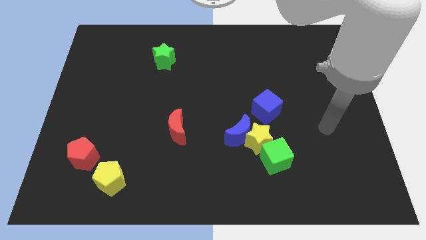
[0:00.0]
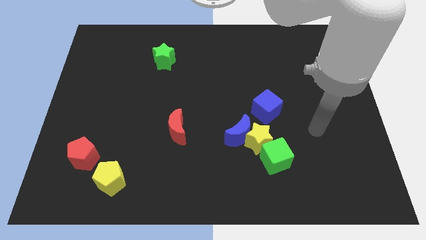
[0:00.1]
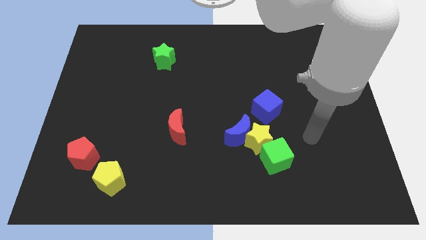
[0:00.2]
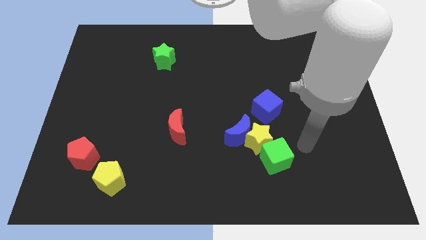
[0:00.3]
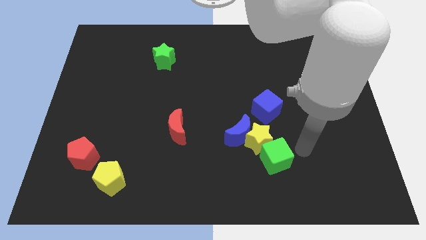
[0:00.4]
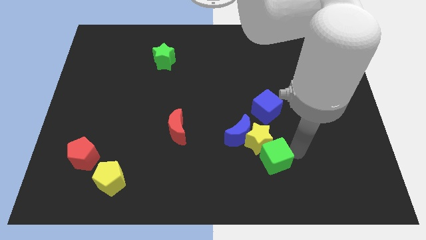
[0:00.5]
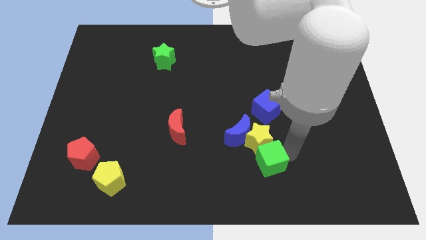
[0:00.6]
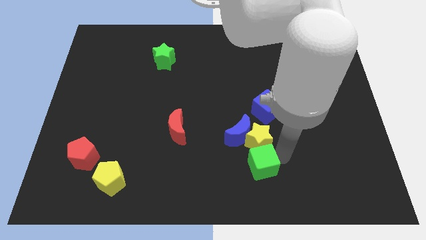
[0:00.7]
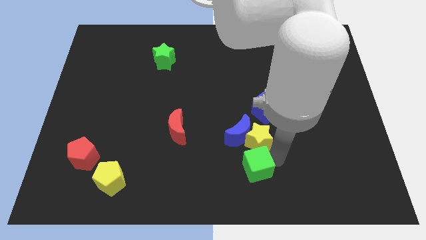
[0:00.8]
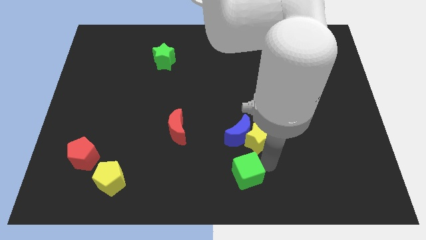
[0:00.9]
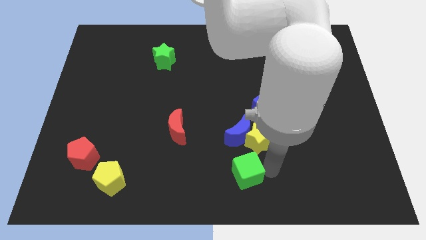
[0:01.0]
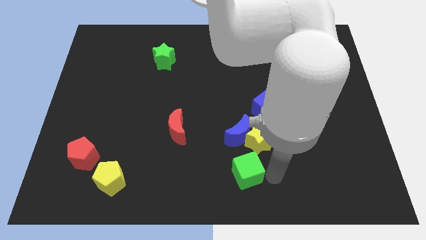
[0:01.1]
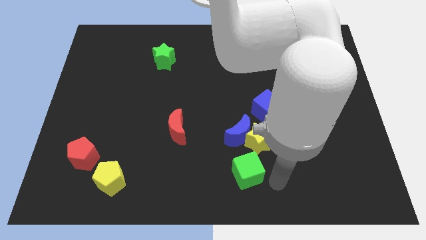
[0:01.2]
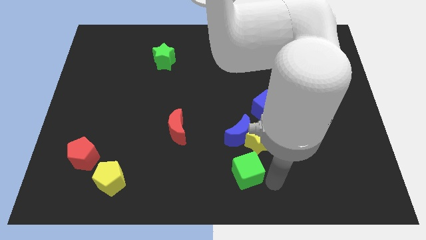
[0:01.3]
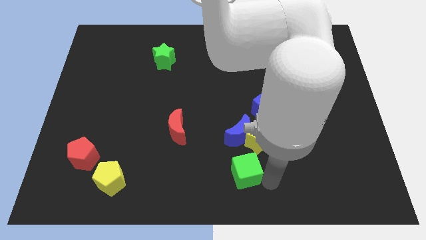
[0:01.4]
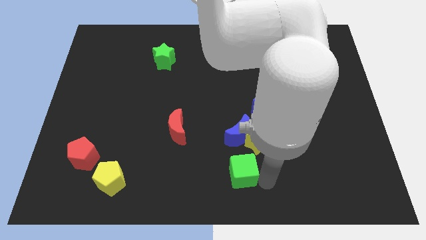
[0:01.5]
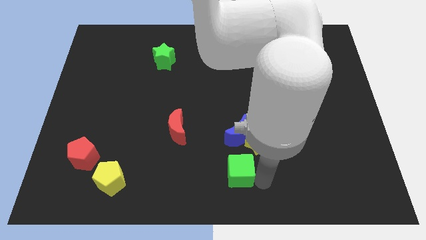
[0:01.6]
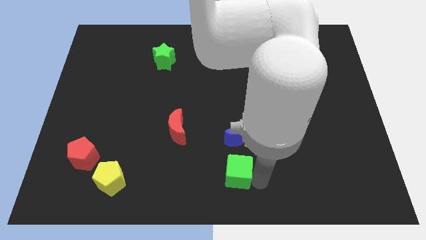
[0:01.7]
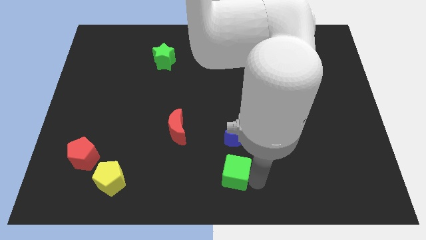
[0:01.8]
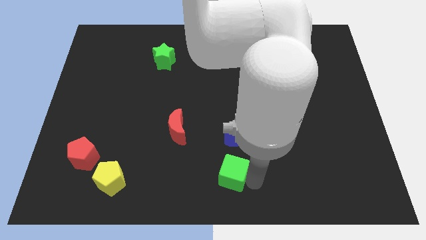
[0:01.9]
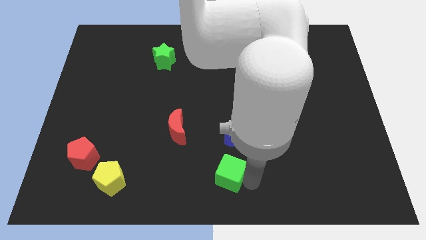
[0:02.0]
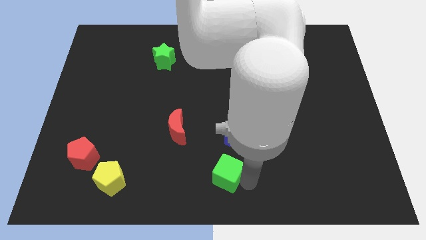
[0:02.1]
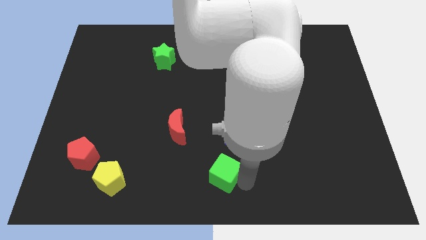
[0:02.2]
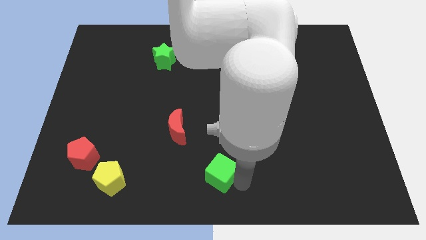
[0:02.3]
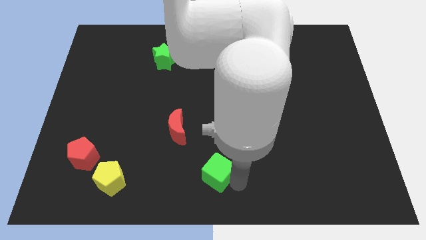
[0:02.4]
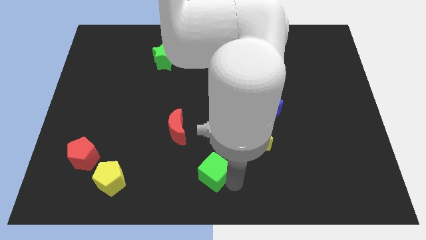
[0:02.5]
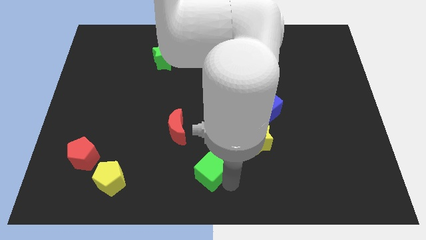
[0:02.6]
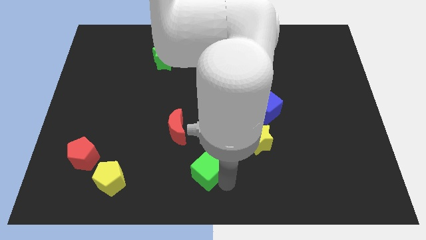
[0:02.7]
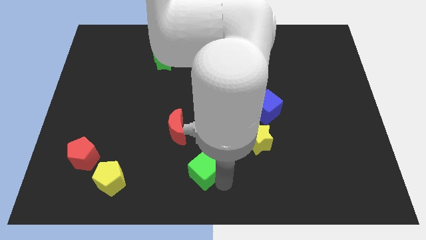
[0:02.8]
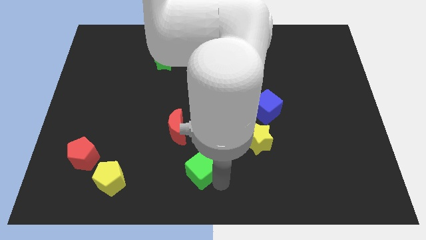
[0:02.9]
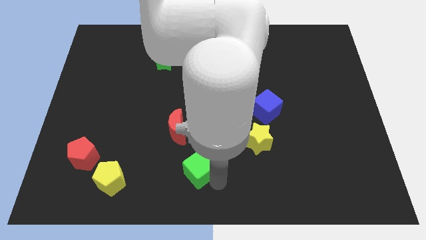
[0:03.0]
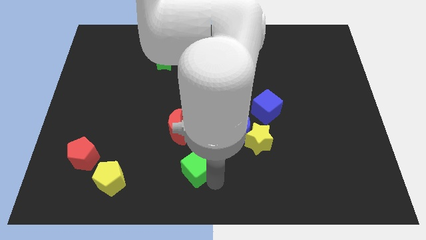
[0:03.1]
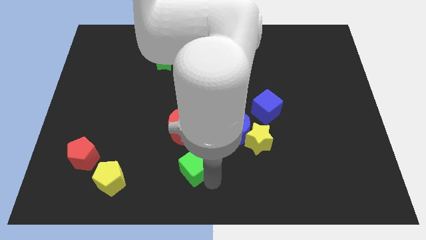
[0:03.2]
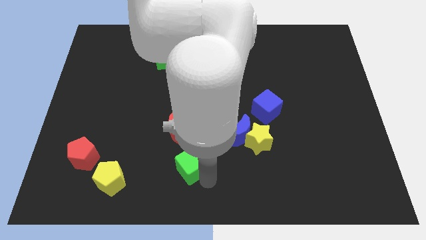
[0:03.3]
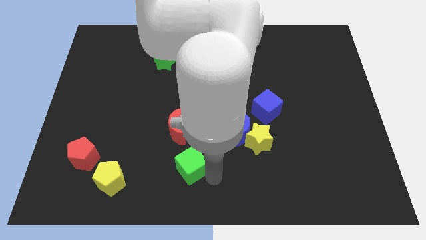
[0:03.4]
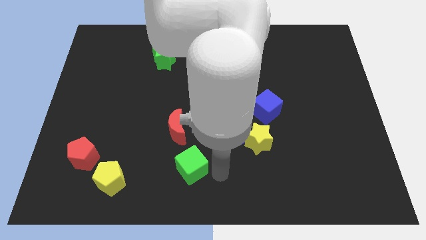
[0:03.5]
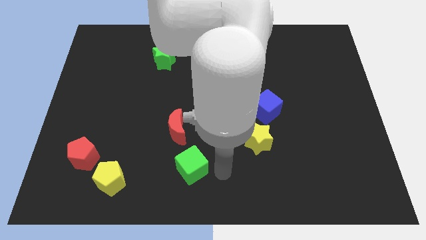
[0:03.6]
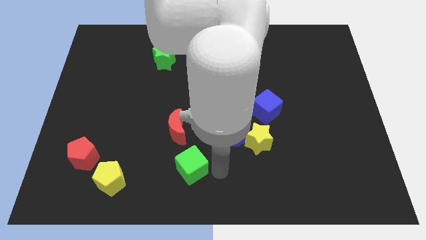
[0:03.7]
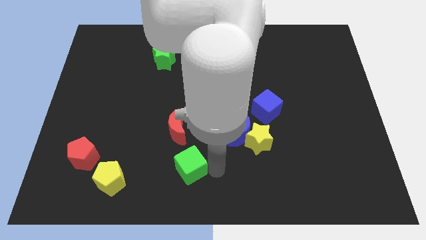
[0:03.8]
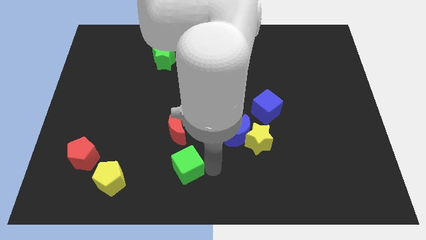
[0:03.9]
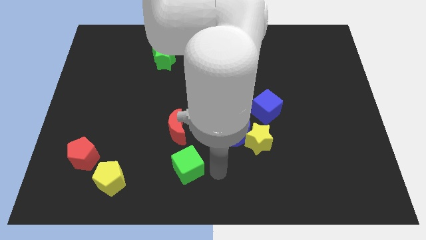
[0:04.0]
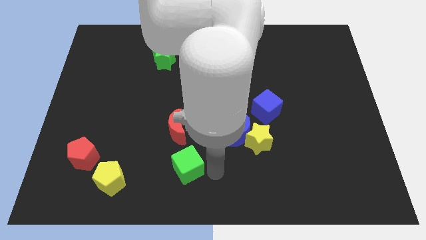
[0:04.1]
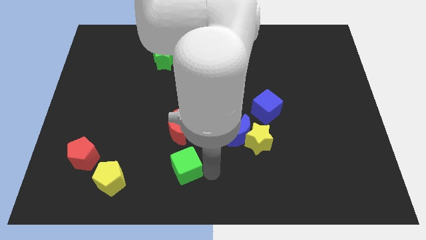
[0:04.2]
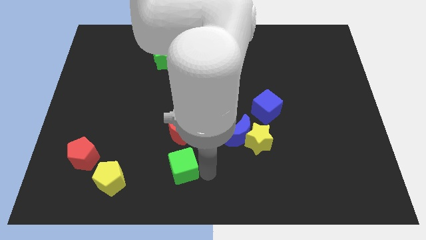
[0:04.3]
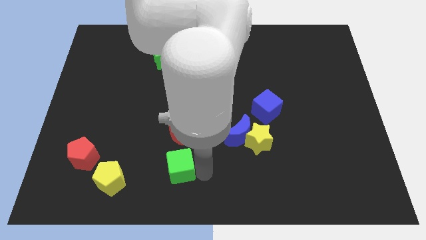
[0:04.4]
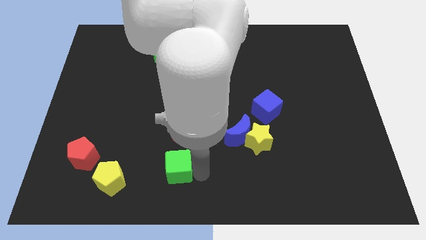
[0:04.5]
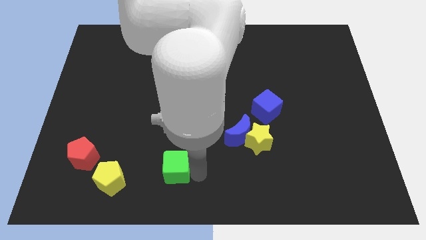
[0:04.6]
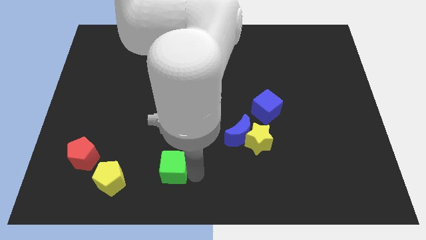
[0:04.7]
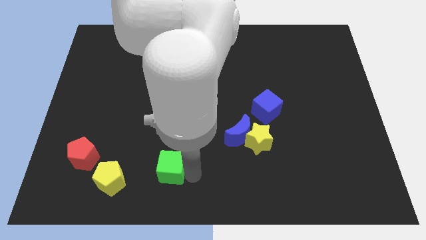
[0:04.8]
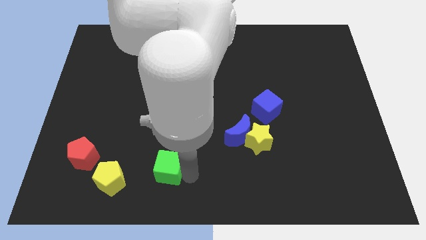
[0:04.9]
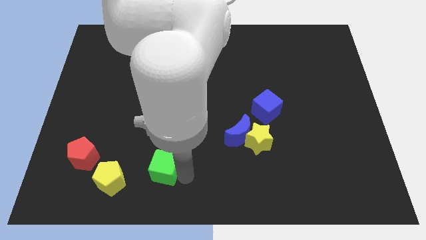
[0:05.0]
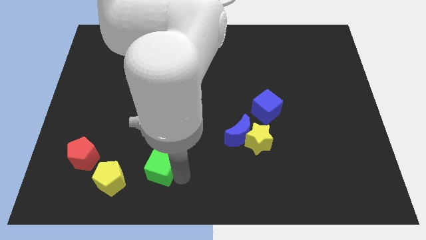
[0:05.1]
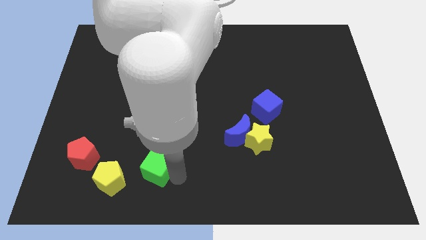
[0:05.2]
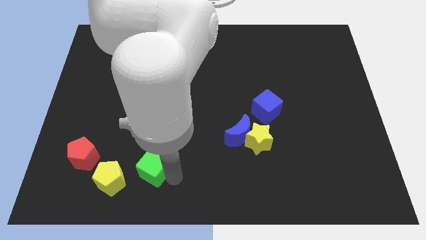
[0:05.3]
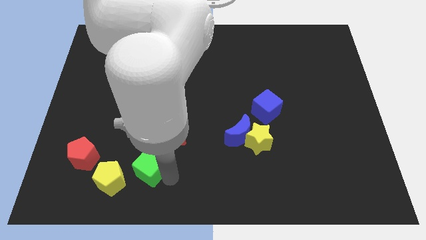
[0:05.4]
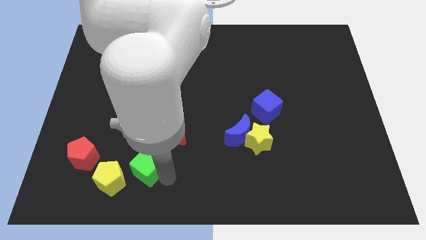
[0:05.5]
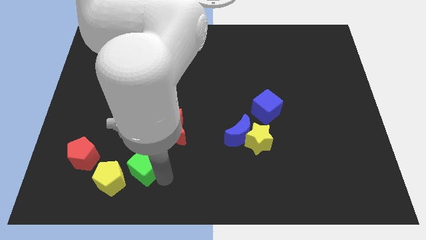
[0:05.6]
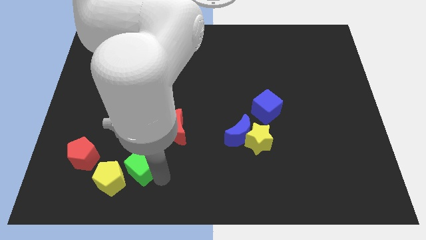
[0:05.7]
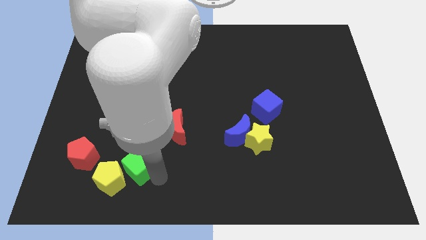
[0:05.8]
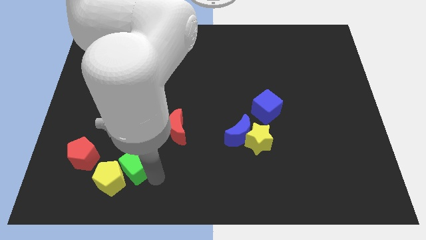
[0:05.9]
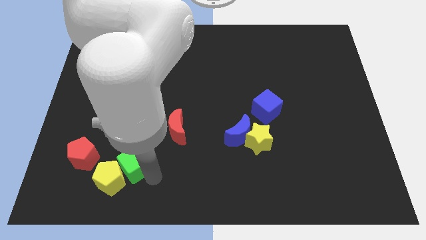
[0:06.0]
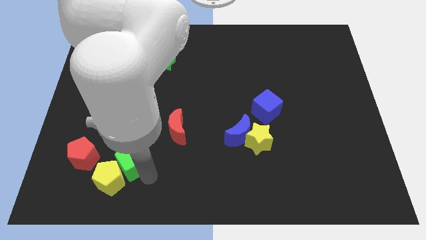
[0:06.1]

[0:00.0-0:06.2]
push the green cube above the yellow pentagon

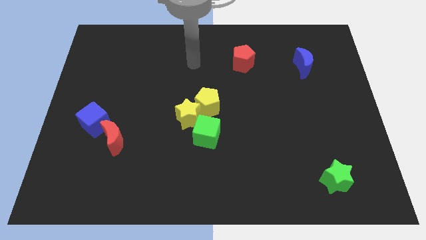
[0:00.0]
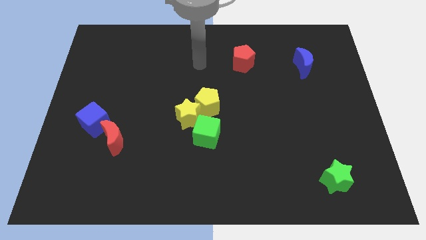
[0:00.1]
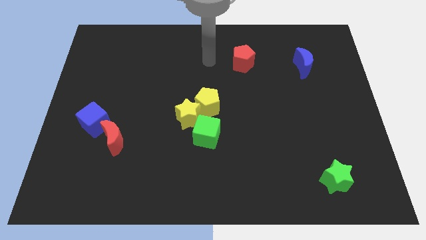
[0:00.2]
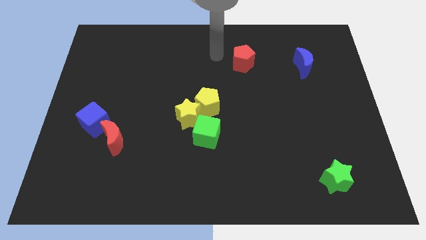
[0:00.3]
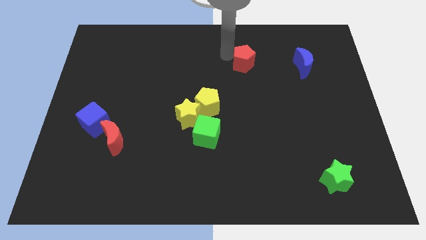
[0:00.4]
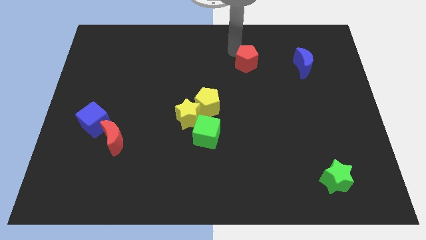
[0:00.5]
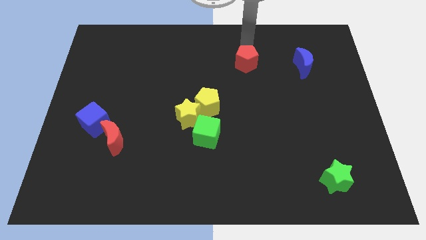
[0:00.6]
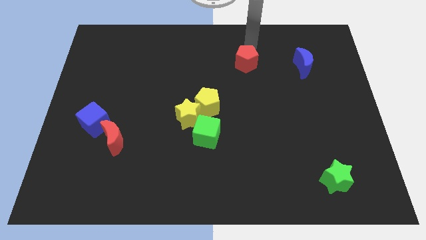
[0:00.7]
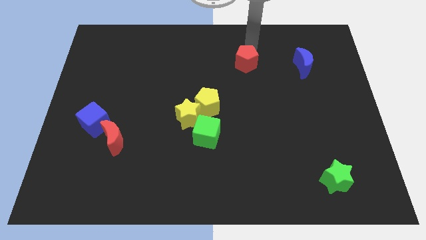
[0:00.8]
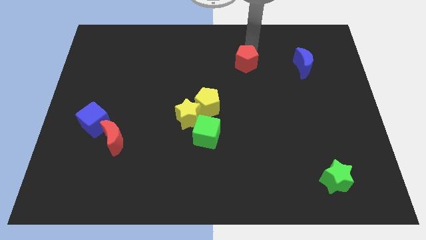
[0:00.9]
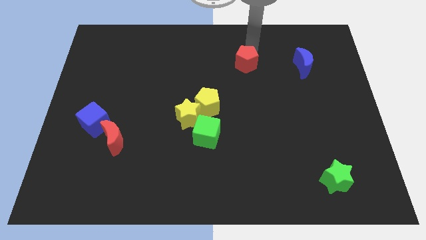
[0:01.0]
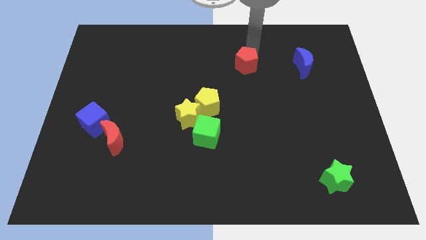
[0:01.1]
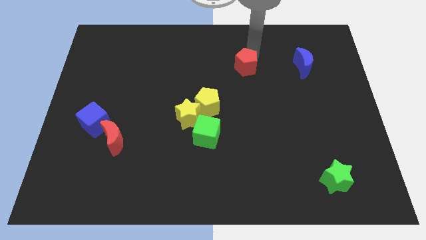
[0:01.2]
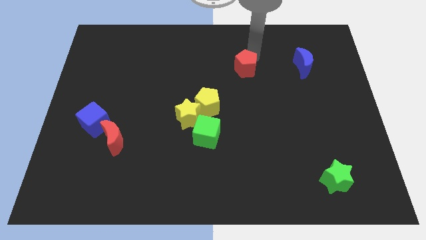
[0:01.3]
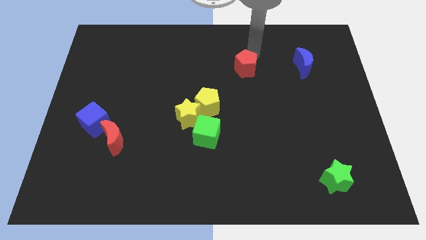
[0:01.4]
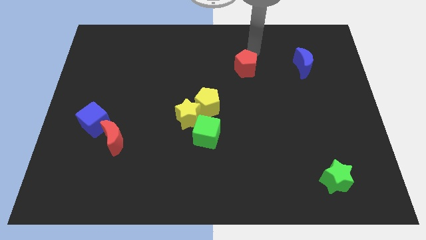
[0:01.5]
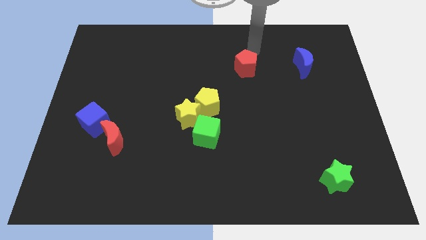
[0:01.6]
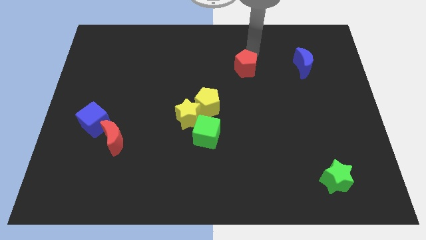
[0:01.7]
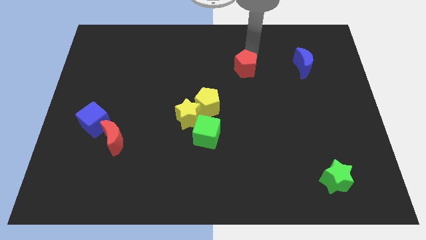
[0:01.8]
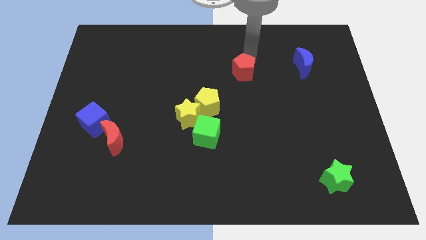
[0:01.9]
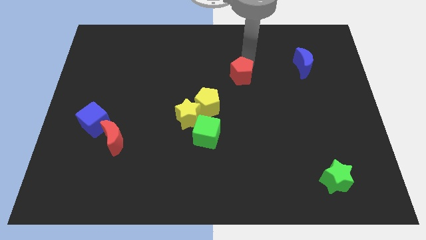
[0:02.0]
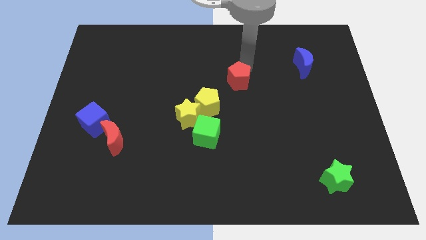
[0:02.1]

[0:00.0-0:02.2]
slide the red pentagon to the top right side of the yellow pentagon
